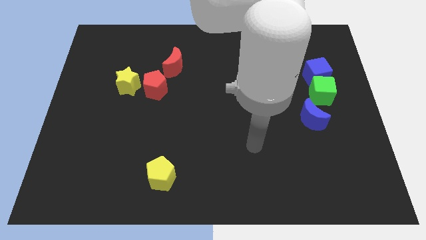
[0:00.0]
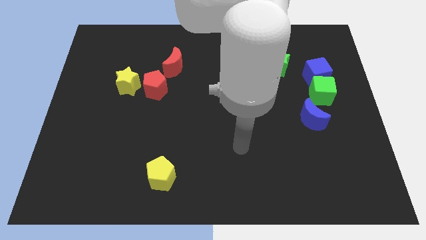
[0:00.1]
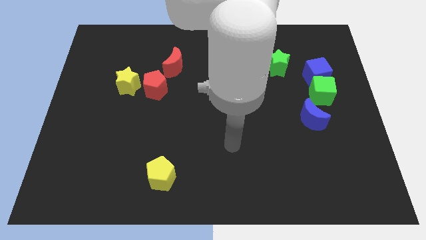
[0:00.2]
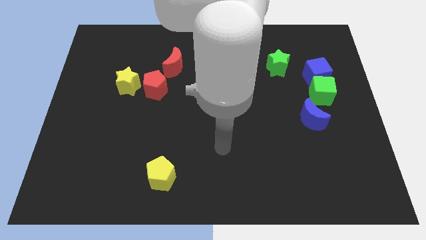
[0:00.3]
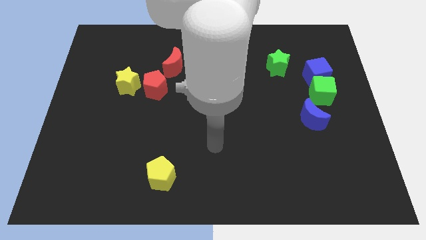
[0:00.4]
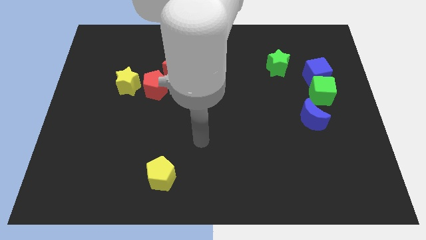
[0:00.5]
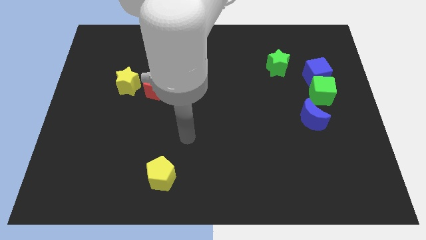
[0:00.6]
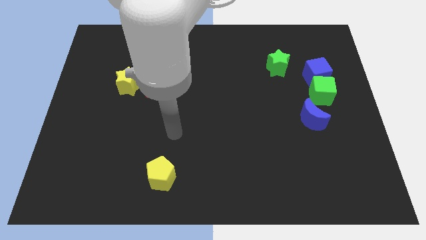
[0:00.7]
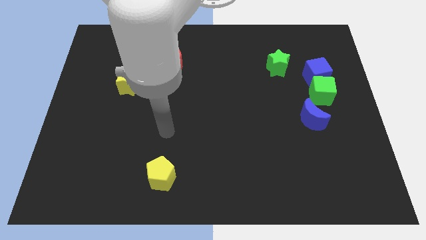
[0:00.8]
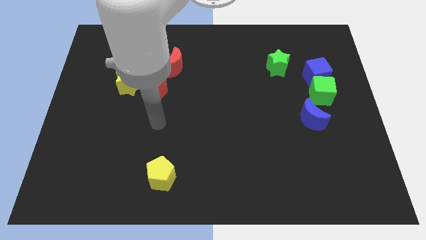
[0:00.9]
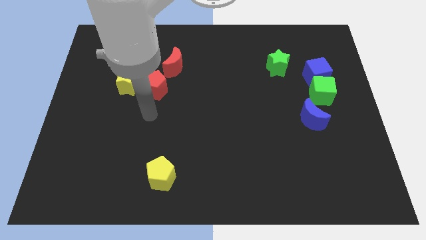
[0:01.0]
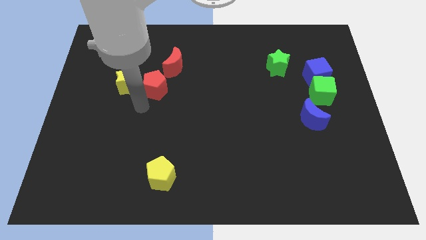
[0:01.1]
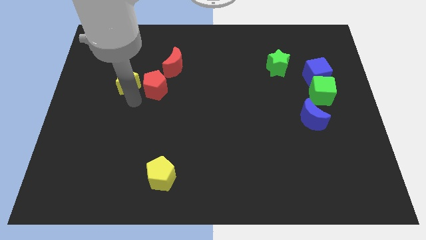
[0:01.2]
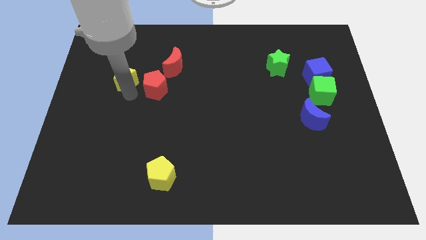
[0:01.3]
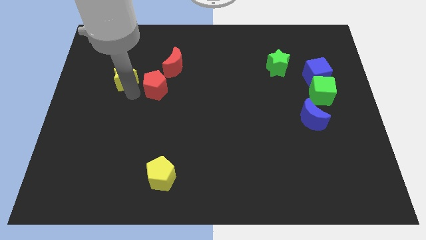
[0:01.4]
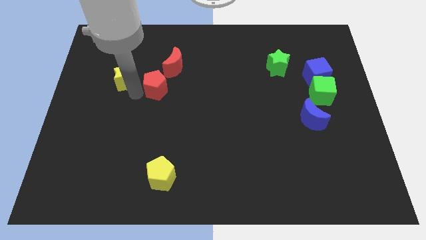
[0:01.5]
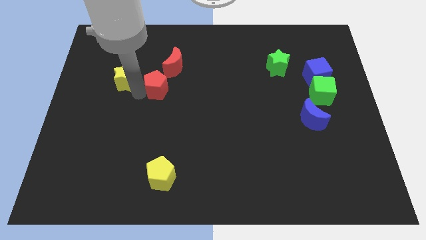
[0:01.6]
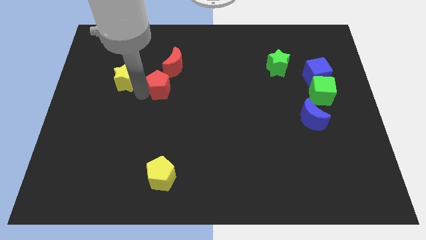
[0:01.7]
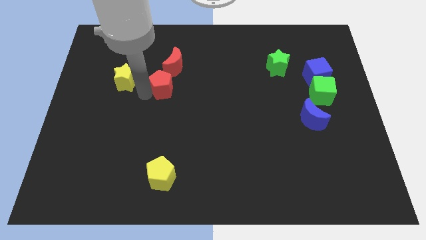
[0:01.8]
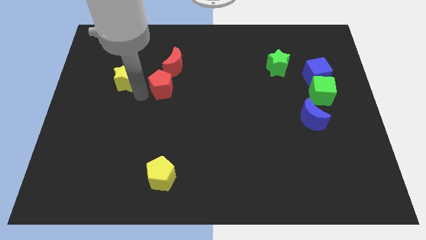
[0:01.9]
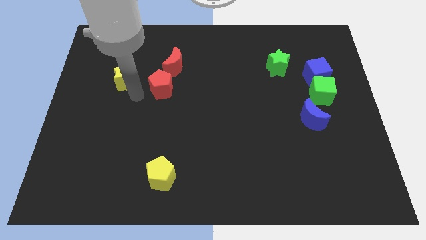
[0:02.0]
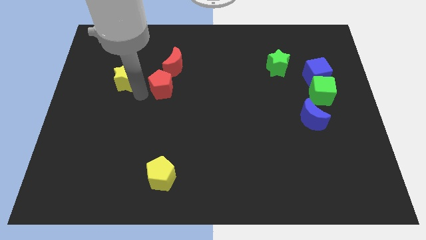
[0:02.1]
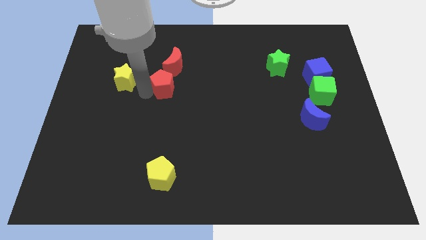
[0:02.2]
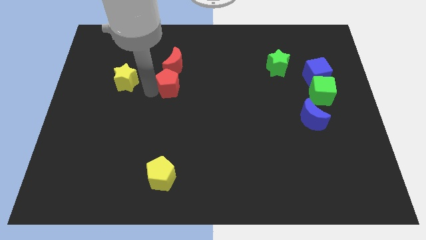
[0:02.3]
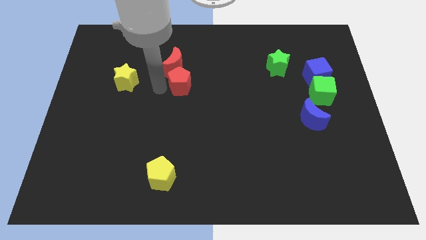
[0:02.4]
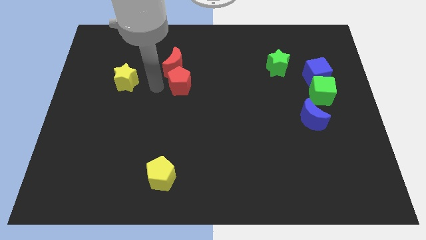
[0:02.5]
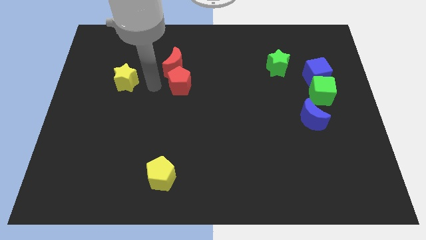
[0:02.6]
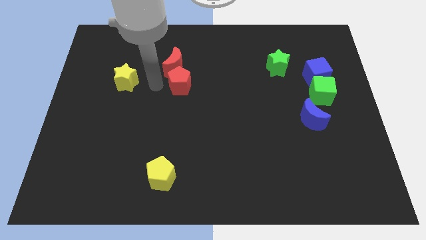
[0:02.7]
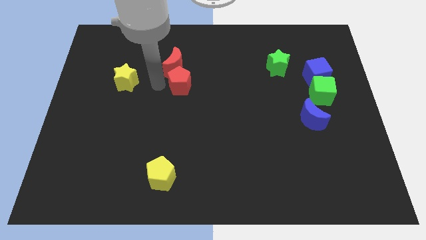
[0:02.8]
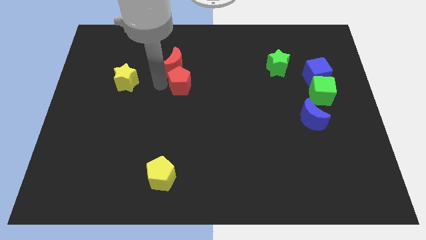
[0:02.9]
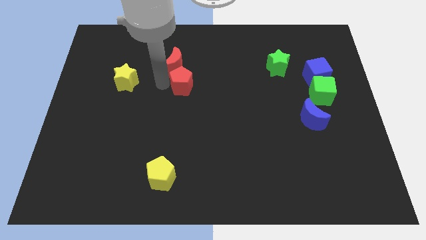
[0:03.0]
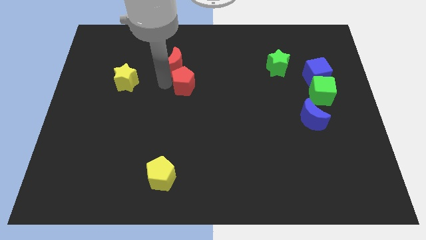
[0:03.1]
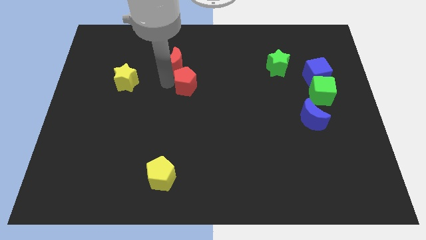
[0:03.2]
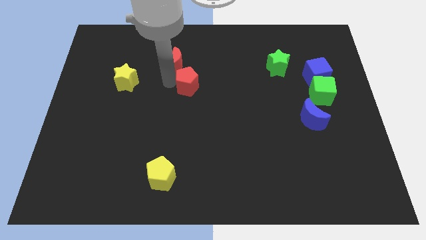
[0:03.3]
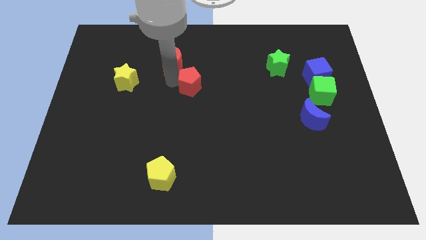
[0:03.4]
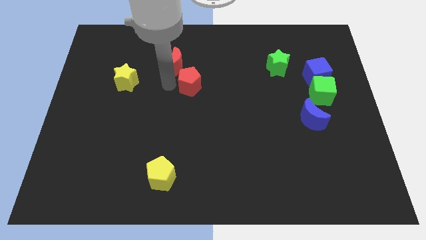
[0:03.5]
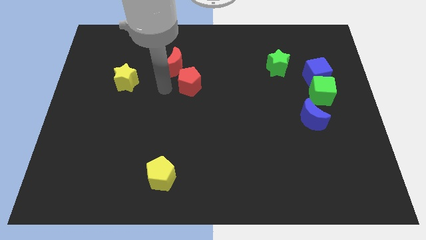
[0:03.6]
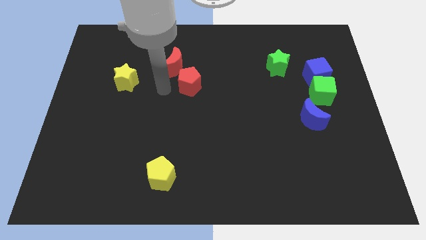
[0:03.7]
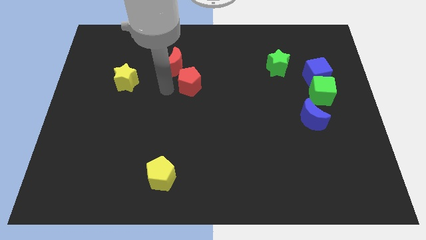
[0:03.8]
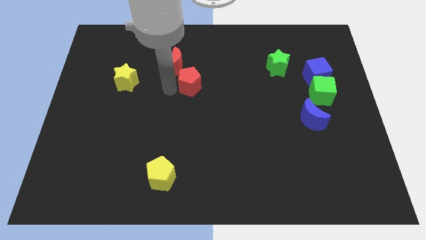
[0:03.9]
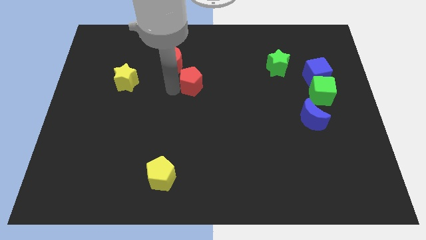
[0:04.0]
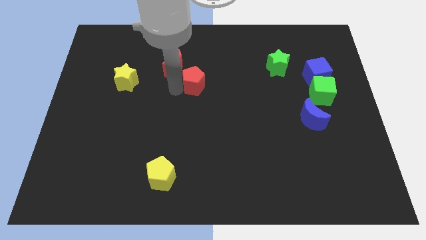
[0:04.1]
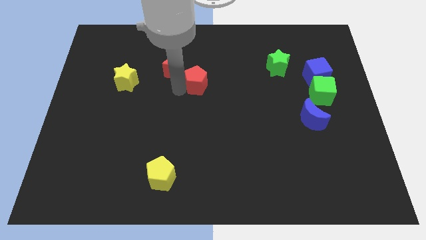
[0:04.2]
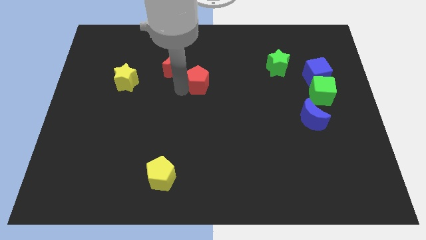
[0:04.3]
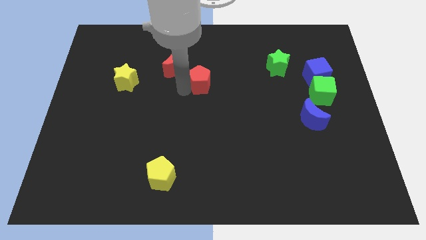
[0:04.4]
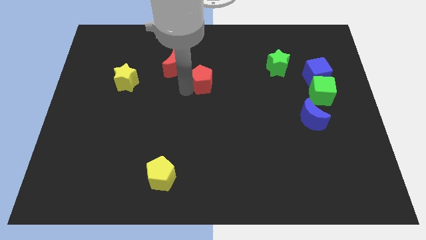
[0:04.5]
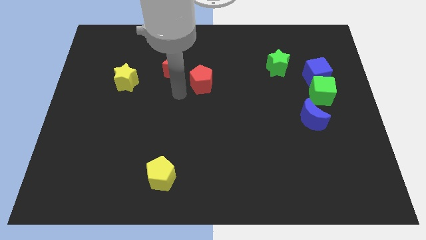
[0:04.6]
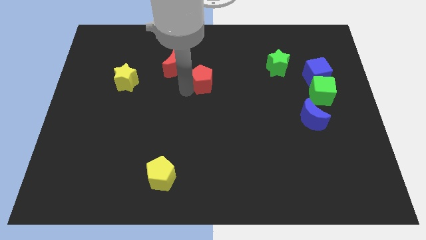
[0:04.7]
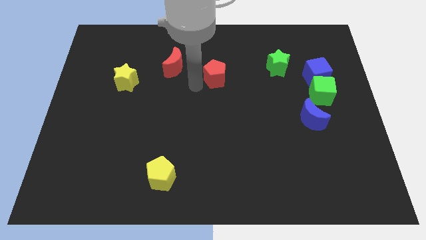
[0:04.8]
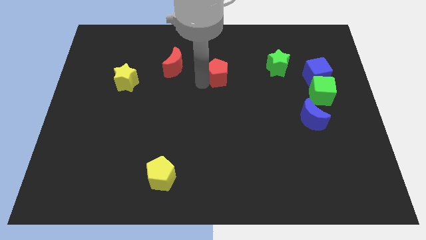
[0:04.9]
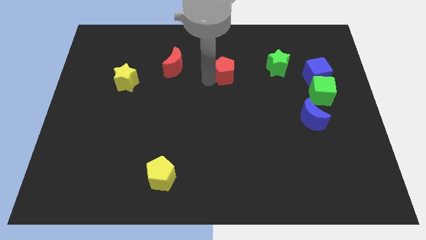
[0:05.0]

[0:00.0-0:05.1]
move the red pentagon left of the green star

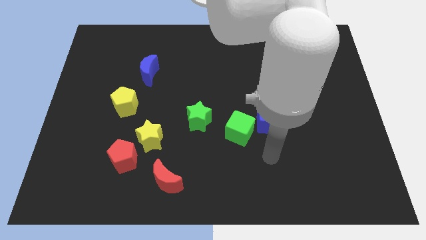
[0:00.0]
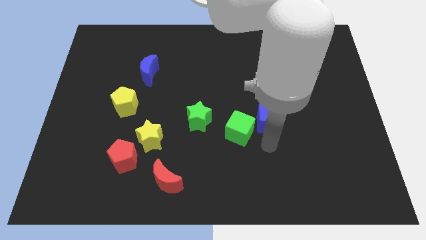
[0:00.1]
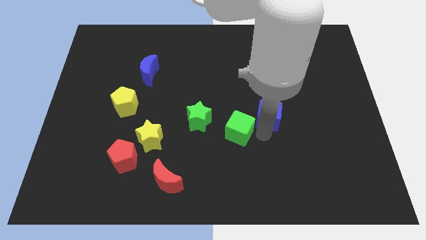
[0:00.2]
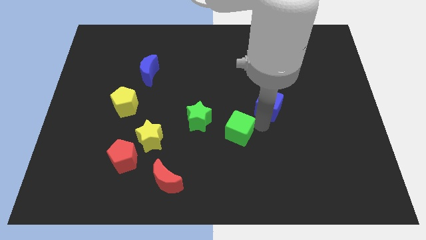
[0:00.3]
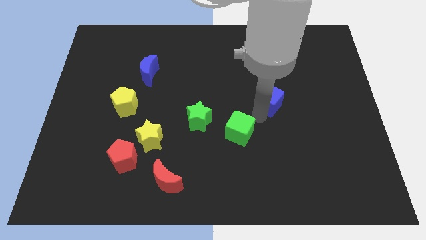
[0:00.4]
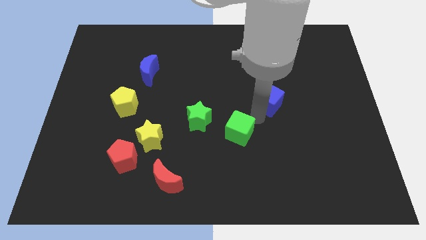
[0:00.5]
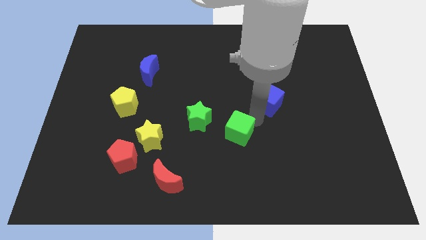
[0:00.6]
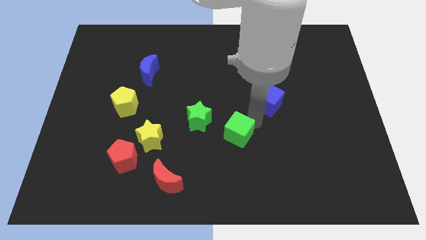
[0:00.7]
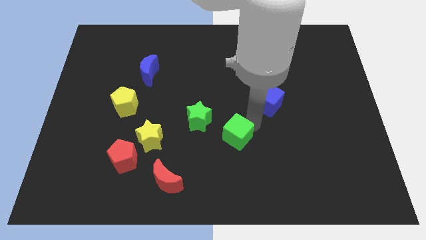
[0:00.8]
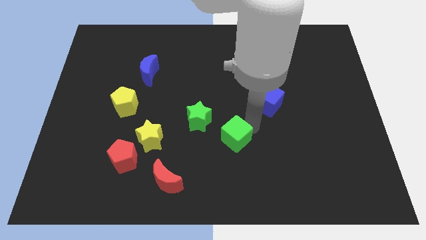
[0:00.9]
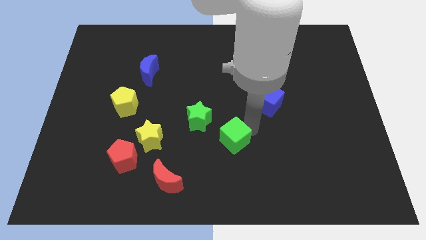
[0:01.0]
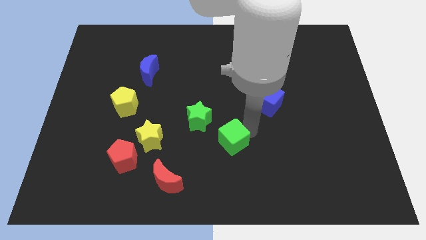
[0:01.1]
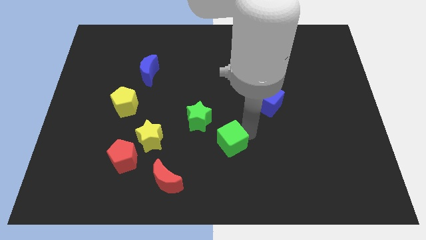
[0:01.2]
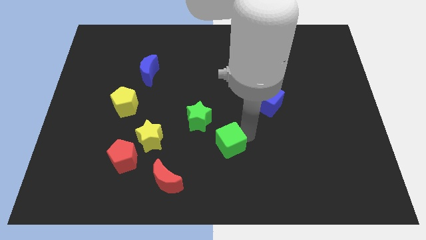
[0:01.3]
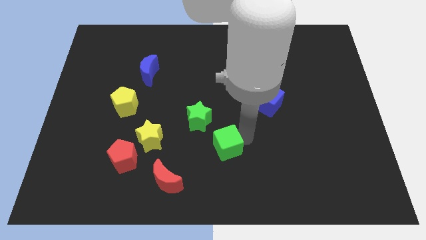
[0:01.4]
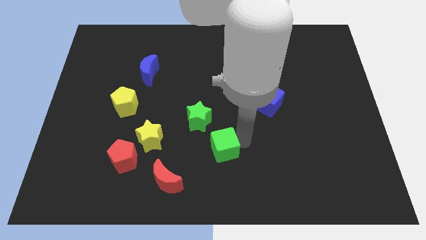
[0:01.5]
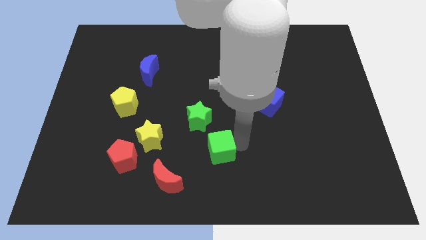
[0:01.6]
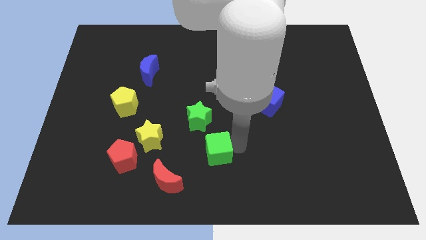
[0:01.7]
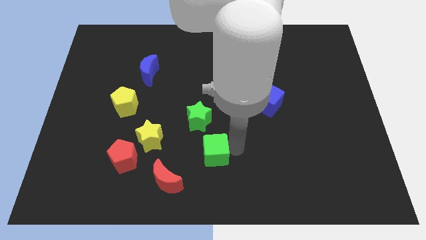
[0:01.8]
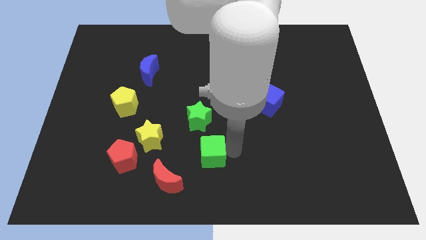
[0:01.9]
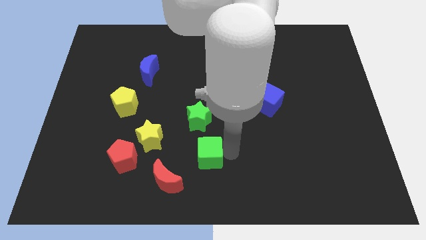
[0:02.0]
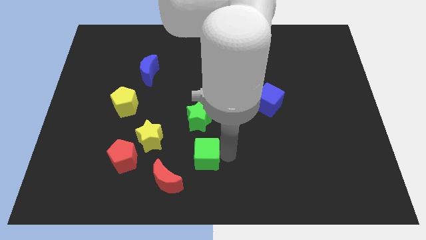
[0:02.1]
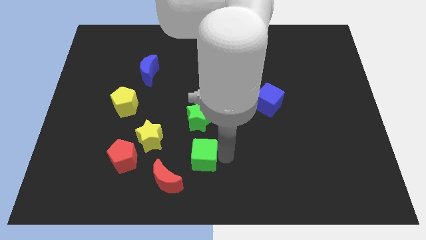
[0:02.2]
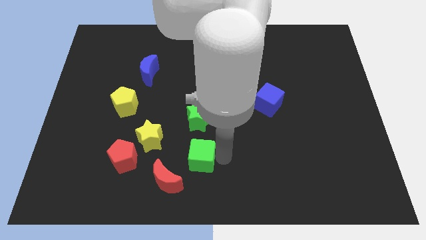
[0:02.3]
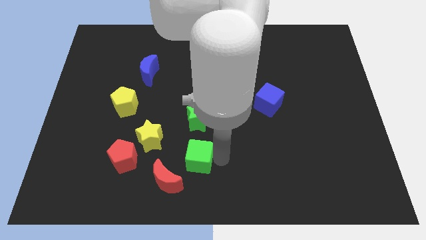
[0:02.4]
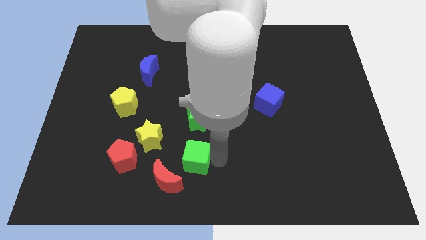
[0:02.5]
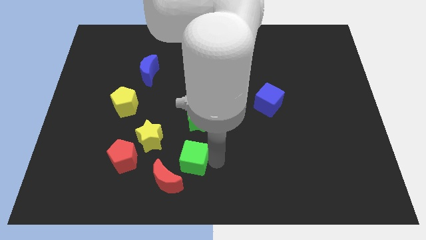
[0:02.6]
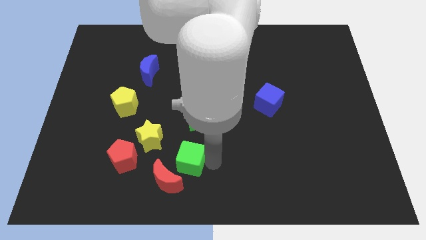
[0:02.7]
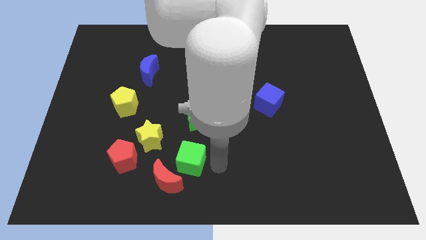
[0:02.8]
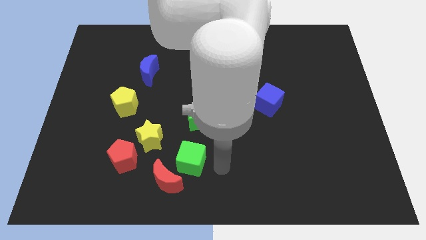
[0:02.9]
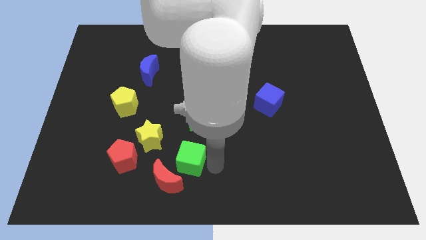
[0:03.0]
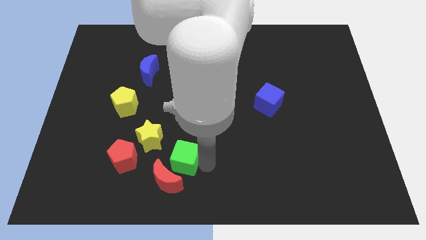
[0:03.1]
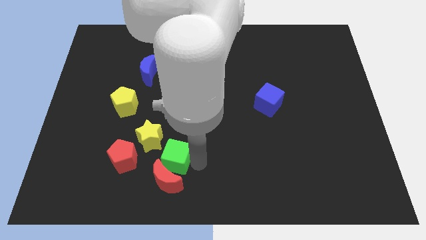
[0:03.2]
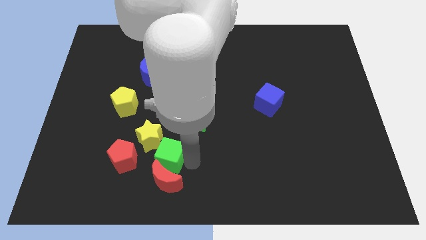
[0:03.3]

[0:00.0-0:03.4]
move the green cube below the yellow star
